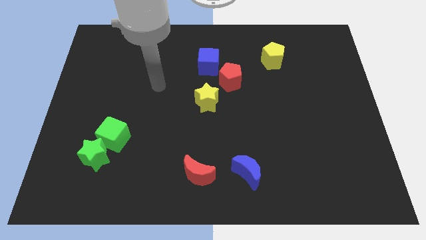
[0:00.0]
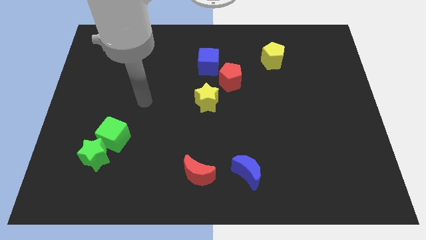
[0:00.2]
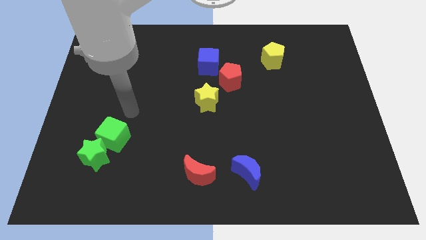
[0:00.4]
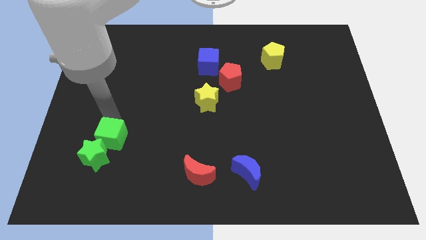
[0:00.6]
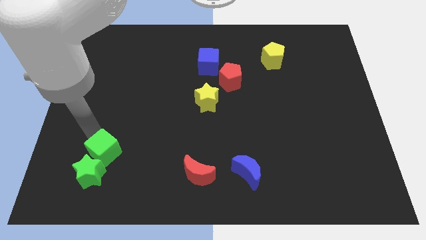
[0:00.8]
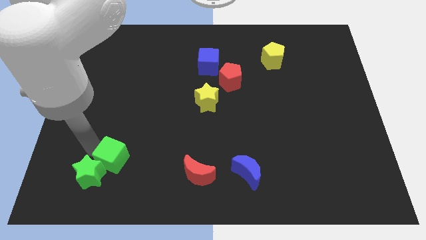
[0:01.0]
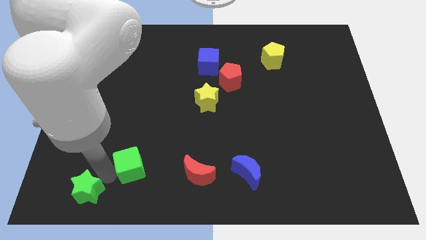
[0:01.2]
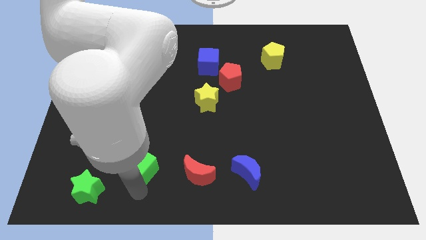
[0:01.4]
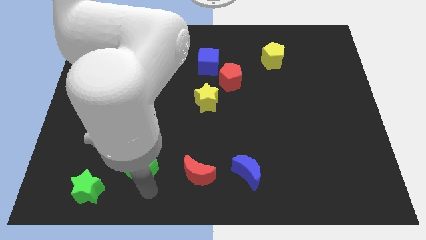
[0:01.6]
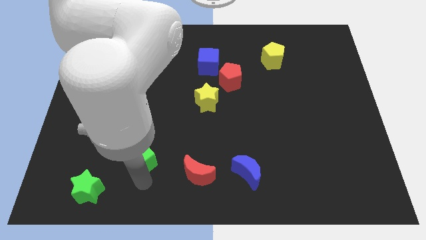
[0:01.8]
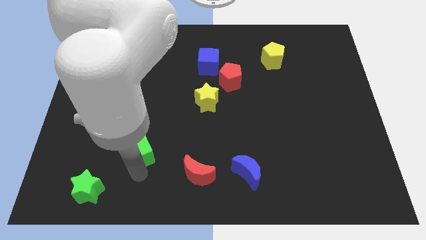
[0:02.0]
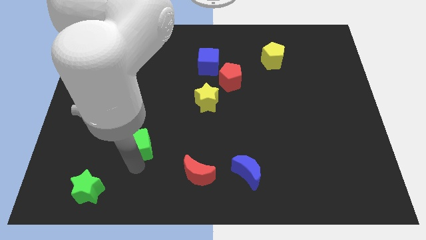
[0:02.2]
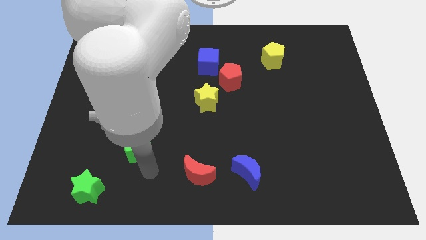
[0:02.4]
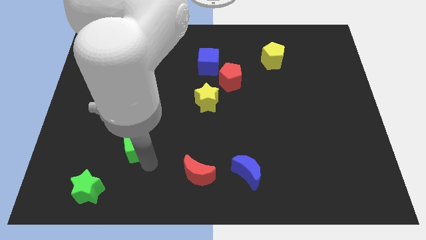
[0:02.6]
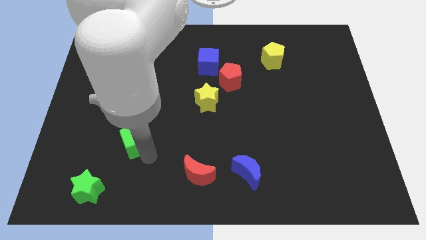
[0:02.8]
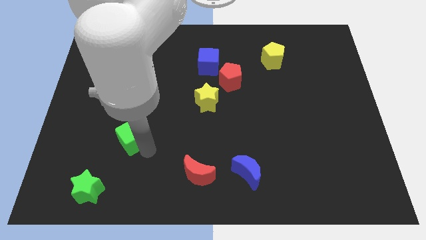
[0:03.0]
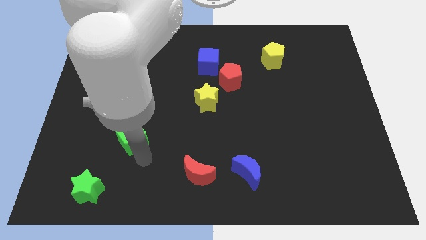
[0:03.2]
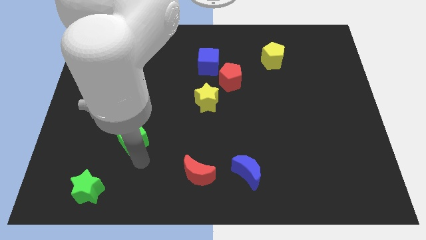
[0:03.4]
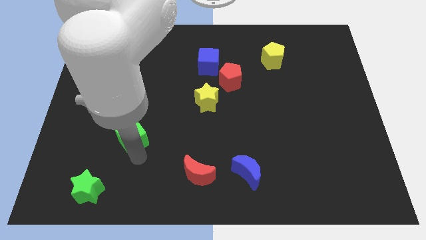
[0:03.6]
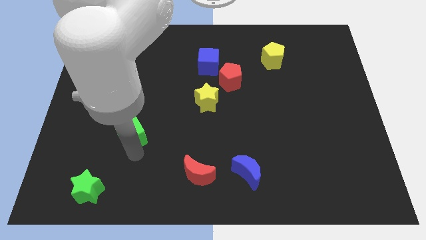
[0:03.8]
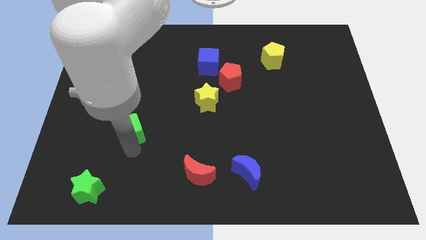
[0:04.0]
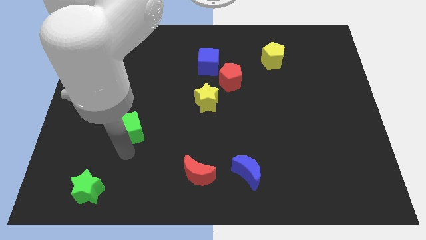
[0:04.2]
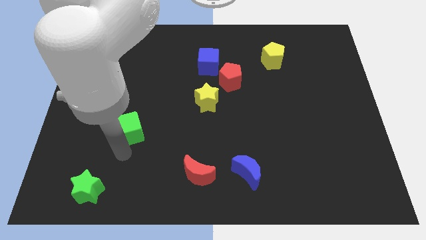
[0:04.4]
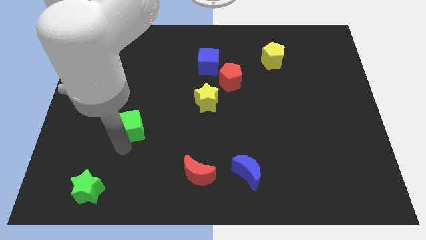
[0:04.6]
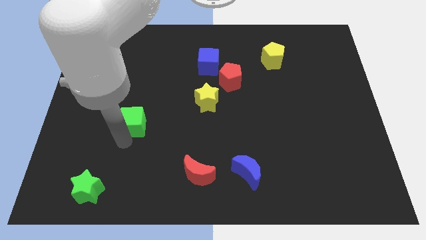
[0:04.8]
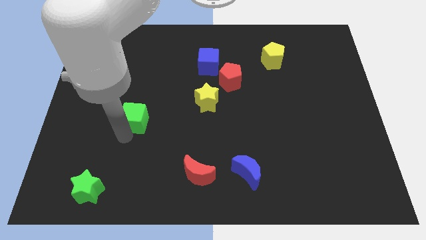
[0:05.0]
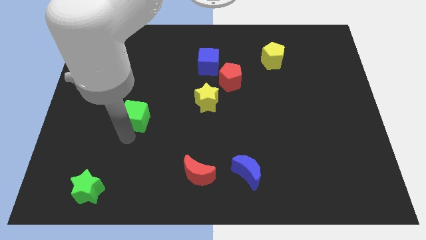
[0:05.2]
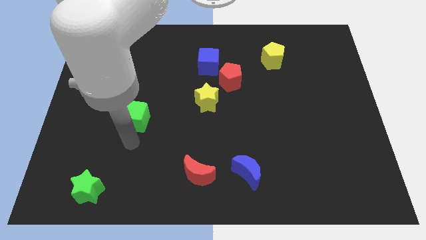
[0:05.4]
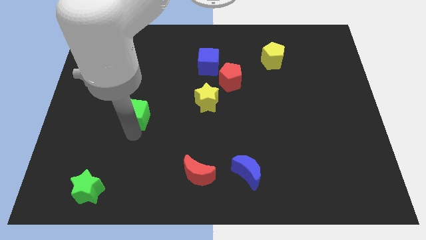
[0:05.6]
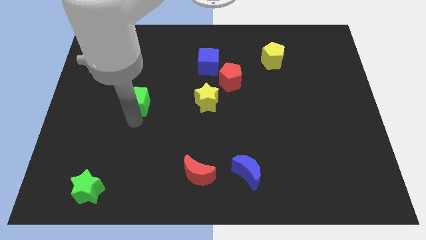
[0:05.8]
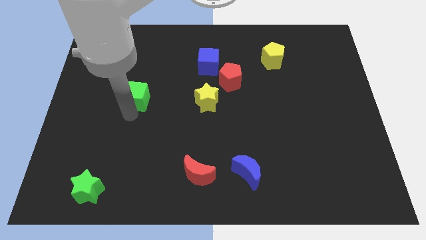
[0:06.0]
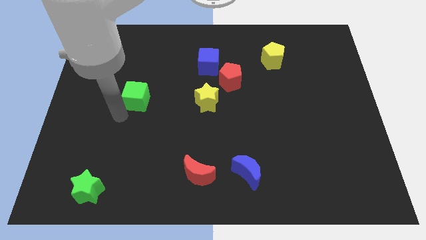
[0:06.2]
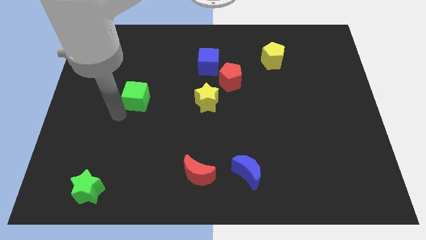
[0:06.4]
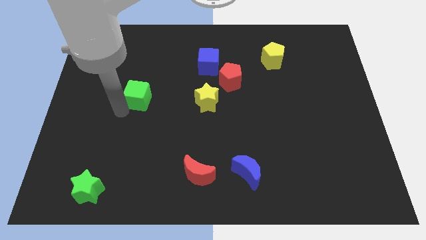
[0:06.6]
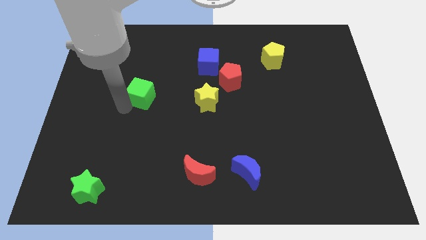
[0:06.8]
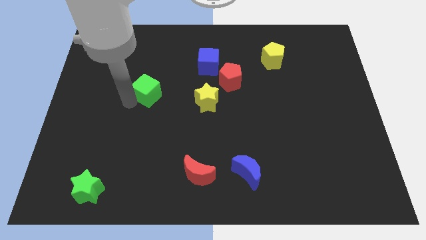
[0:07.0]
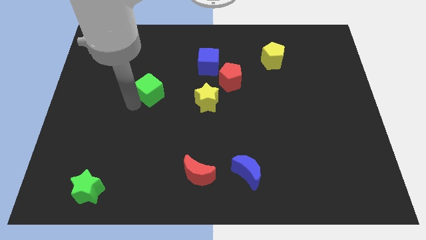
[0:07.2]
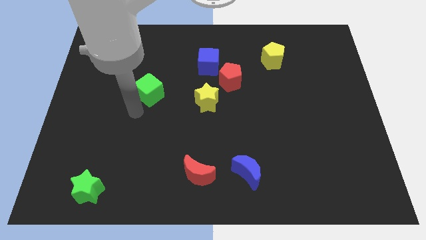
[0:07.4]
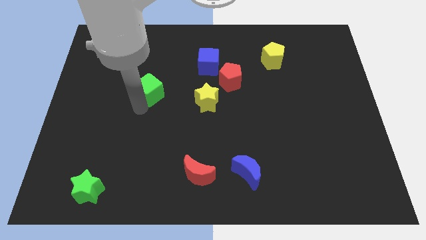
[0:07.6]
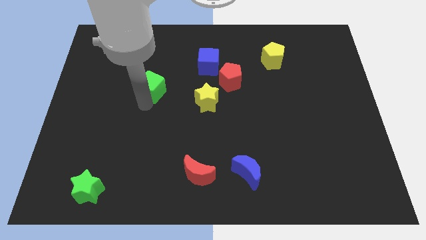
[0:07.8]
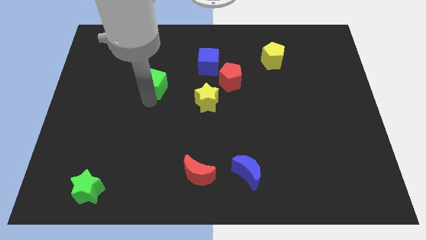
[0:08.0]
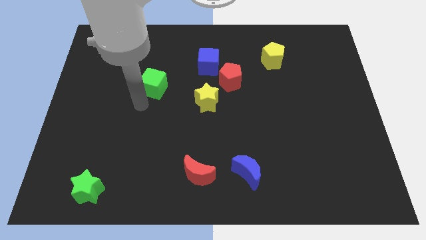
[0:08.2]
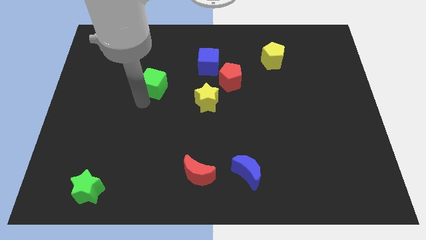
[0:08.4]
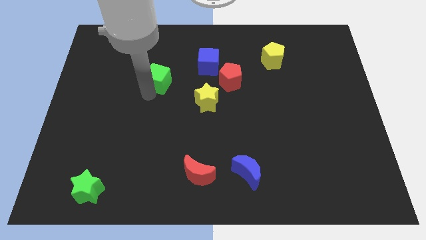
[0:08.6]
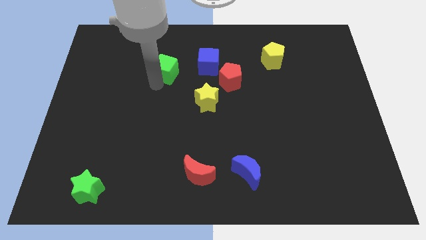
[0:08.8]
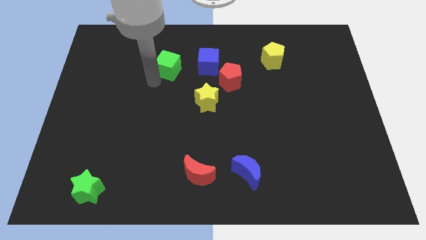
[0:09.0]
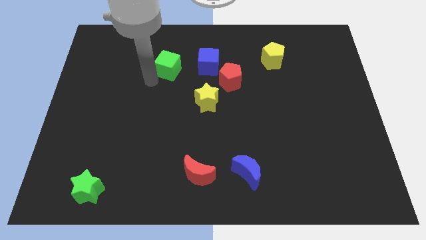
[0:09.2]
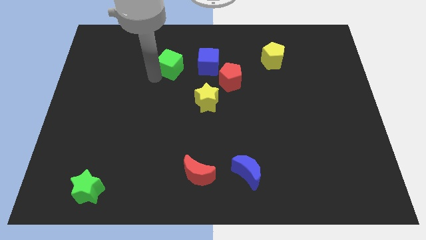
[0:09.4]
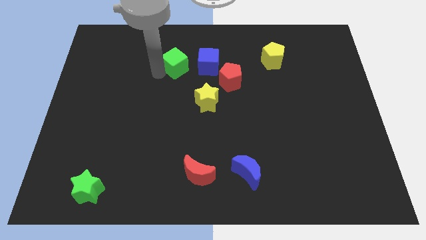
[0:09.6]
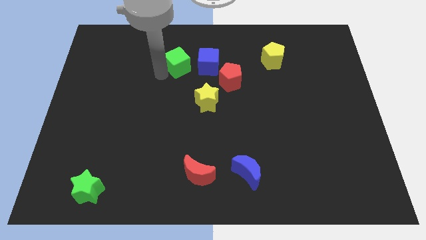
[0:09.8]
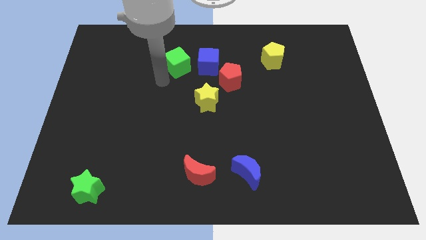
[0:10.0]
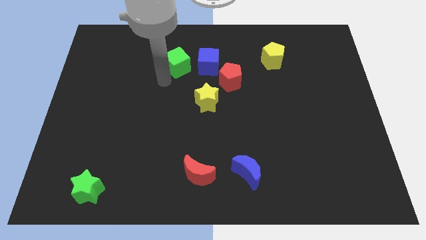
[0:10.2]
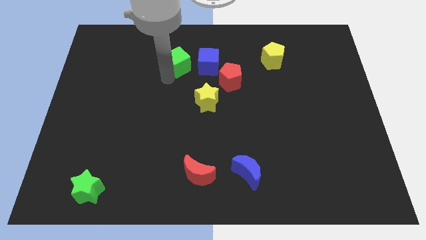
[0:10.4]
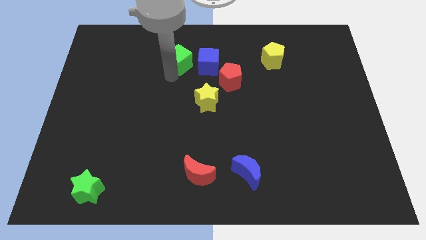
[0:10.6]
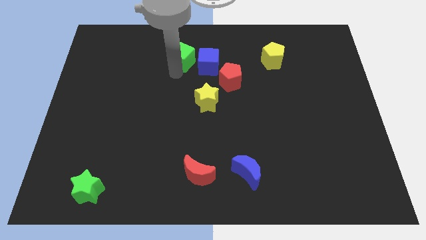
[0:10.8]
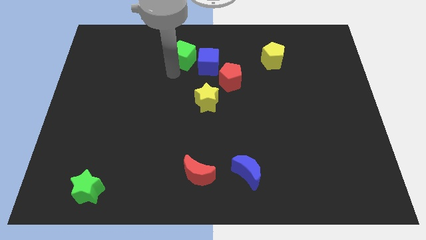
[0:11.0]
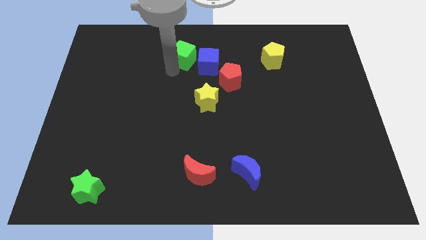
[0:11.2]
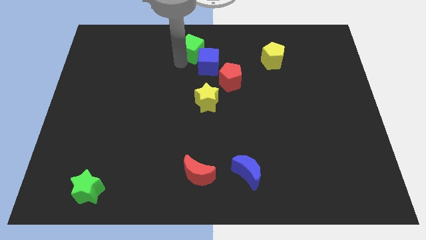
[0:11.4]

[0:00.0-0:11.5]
push the green cube to the top

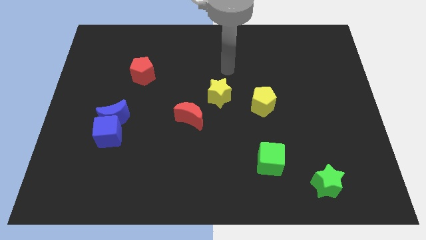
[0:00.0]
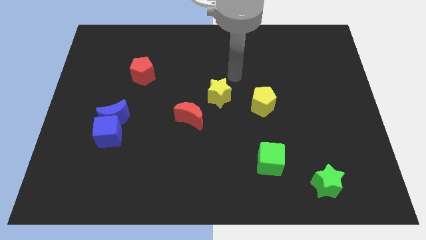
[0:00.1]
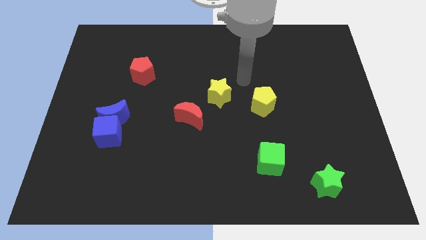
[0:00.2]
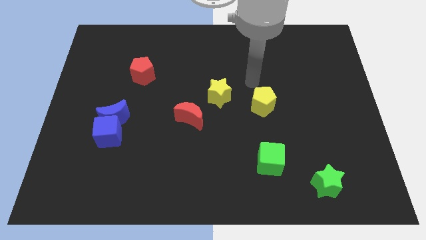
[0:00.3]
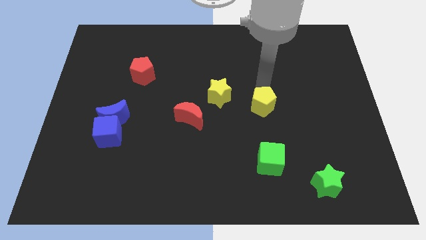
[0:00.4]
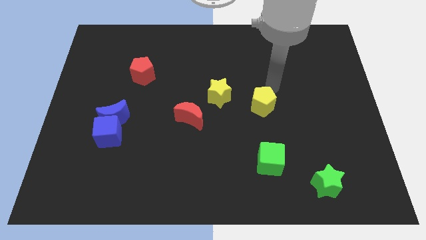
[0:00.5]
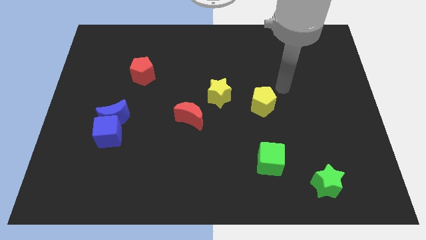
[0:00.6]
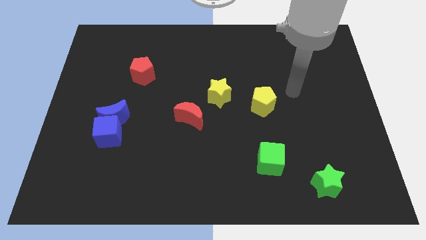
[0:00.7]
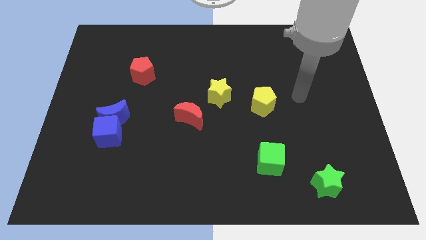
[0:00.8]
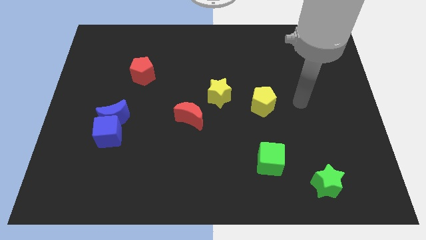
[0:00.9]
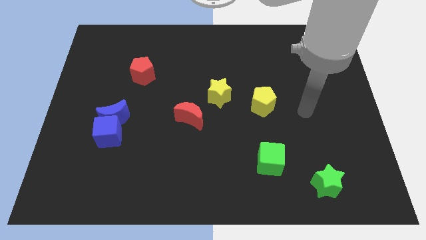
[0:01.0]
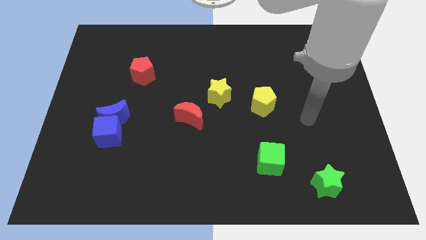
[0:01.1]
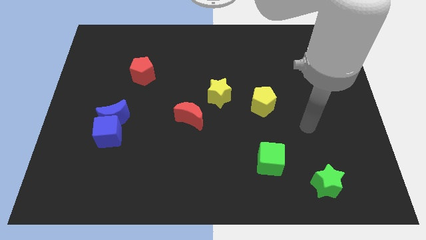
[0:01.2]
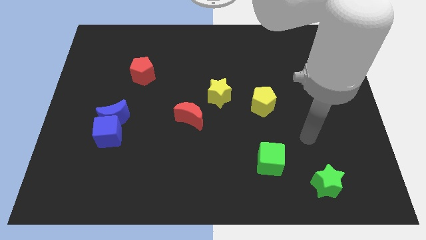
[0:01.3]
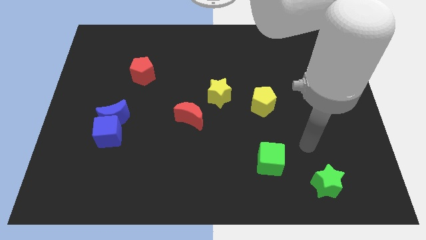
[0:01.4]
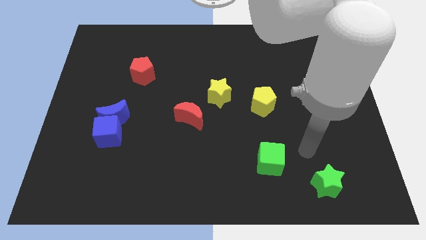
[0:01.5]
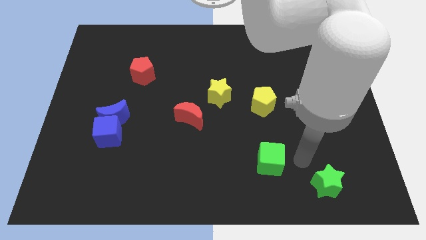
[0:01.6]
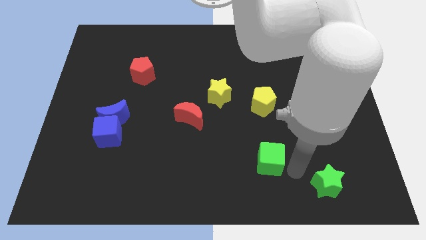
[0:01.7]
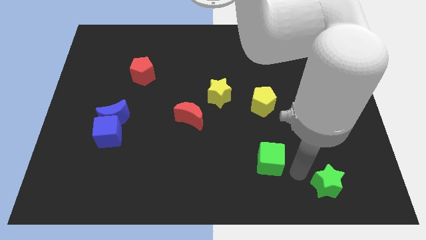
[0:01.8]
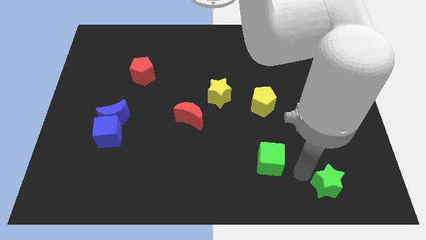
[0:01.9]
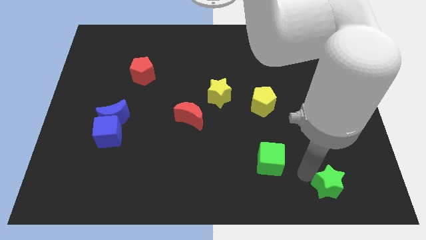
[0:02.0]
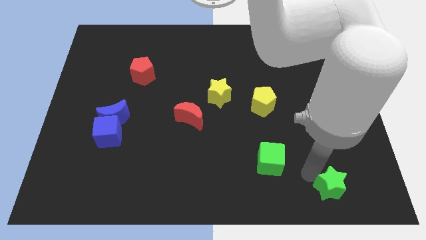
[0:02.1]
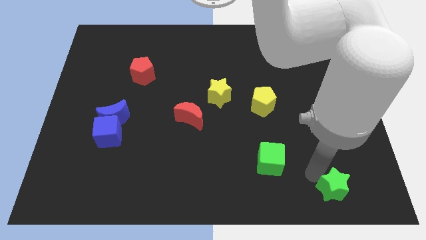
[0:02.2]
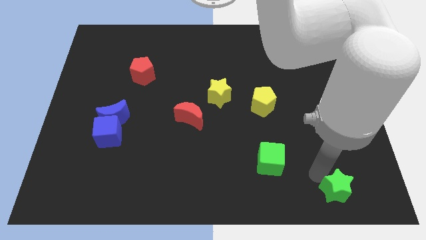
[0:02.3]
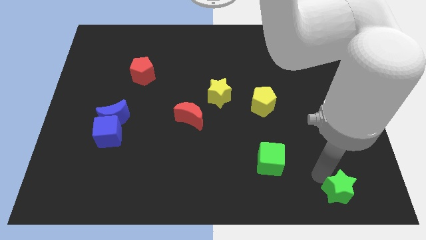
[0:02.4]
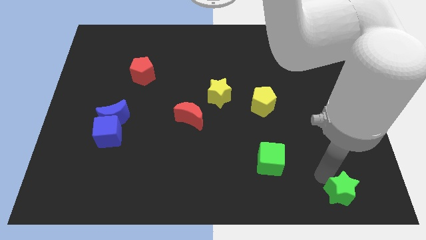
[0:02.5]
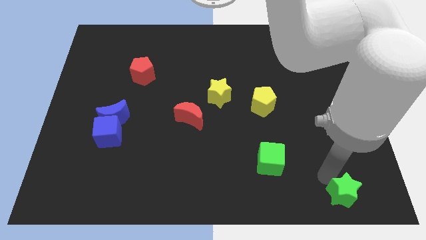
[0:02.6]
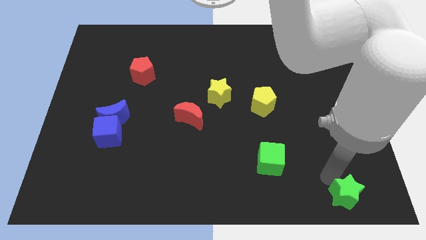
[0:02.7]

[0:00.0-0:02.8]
put the green star to the bottom right corner
